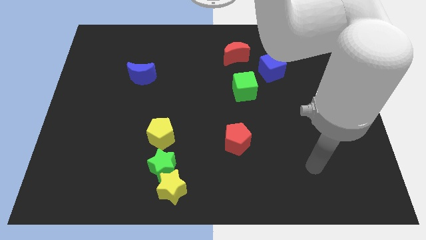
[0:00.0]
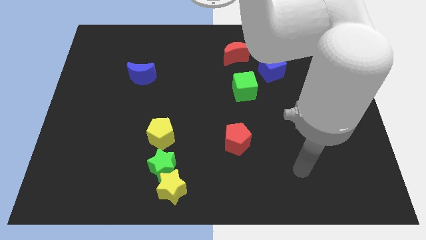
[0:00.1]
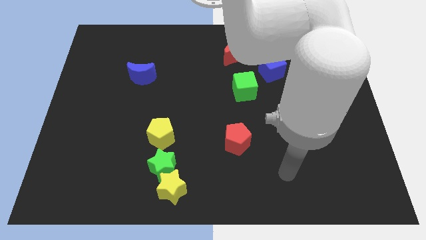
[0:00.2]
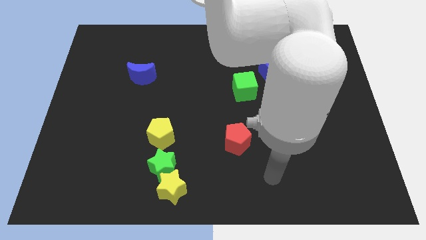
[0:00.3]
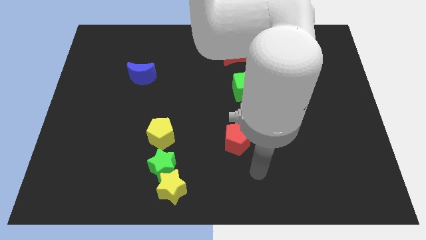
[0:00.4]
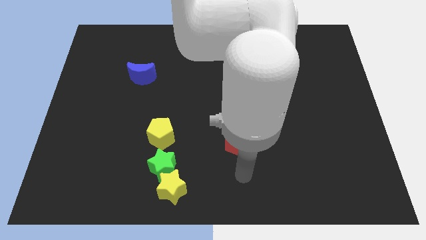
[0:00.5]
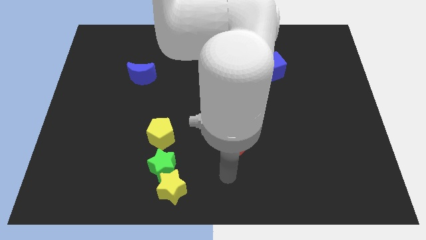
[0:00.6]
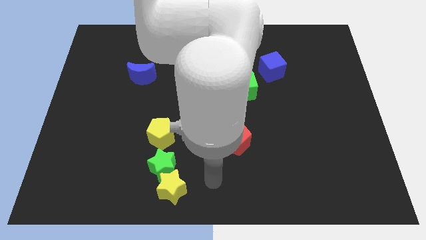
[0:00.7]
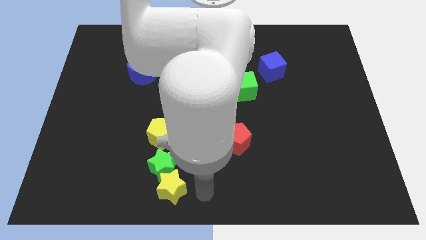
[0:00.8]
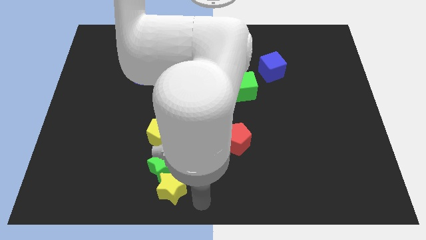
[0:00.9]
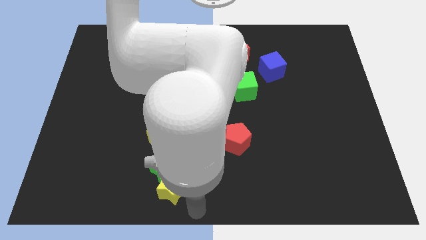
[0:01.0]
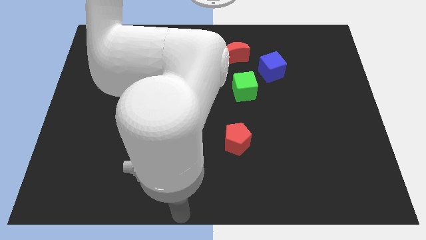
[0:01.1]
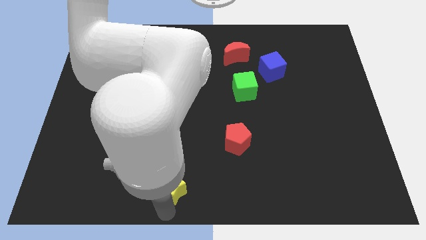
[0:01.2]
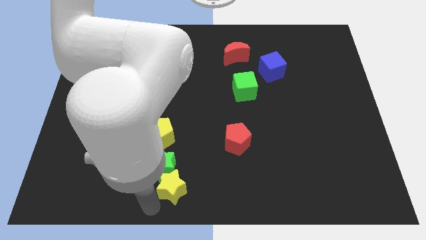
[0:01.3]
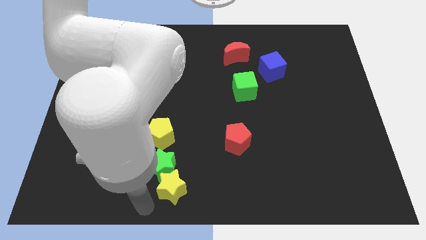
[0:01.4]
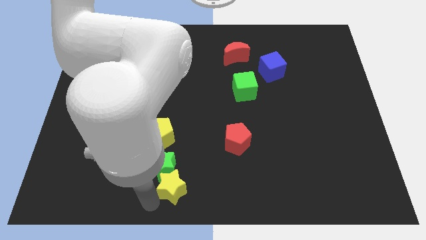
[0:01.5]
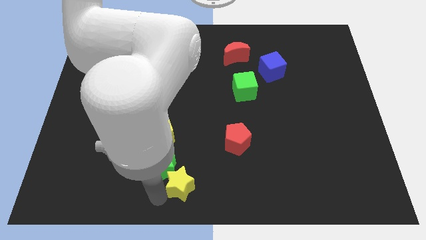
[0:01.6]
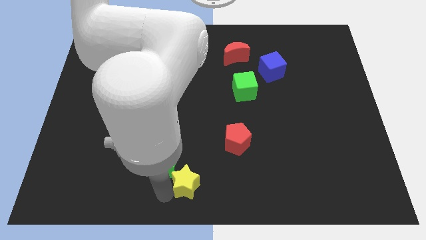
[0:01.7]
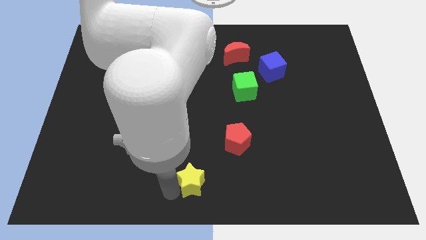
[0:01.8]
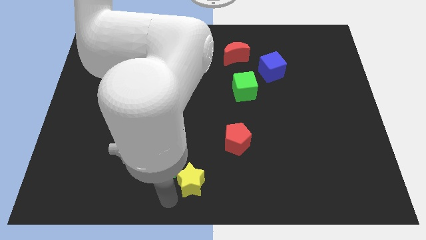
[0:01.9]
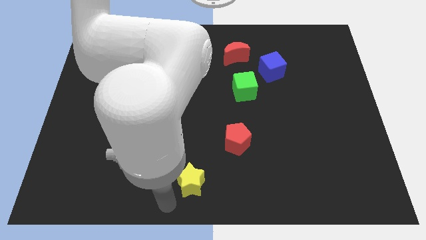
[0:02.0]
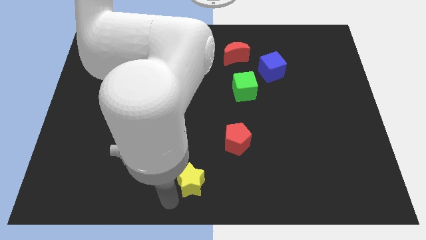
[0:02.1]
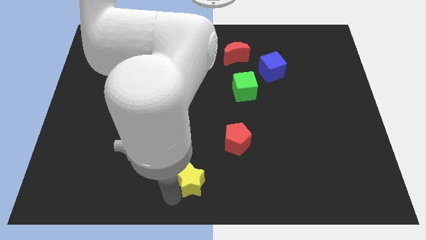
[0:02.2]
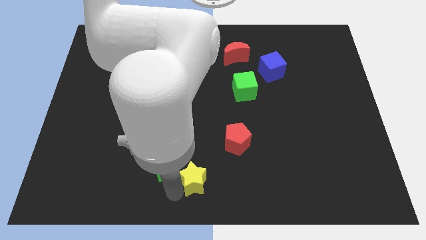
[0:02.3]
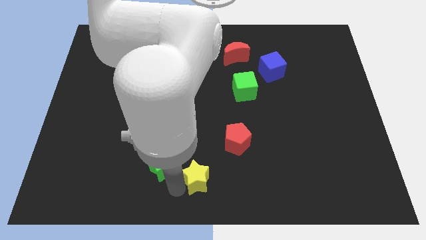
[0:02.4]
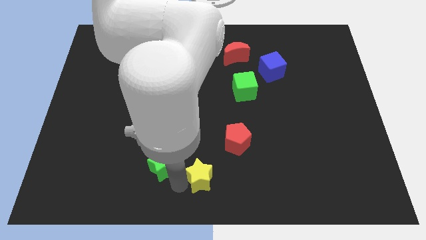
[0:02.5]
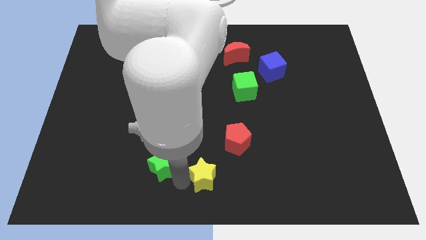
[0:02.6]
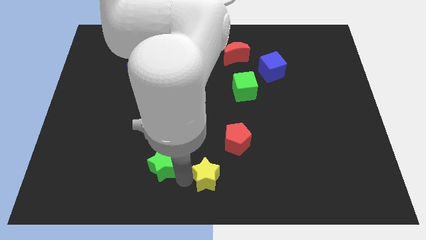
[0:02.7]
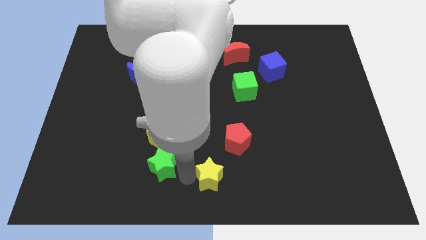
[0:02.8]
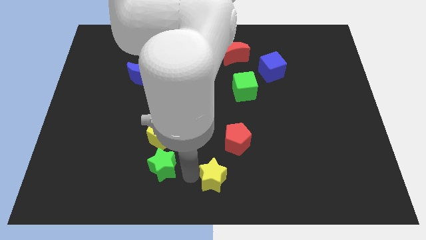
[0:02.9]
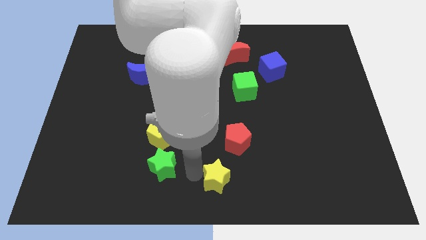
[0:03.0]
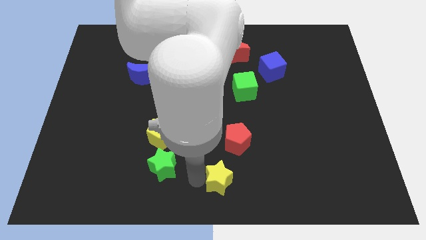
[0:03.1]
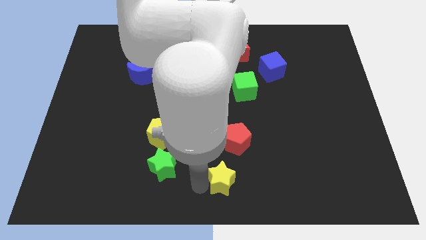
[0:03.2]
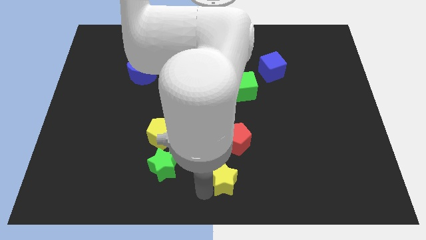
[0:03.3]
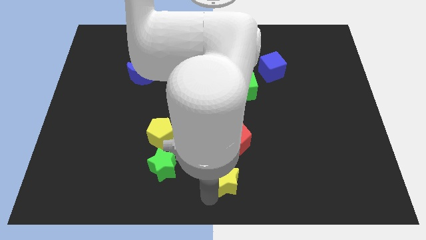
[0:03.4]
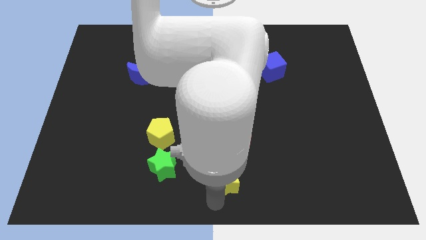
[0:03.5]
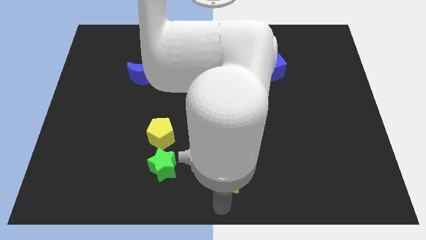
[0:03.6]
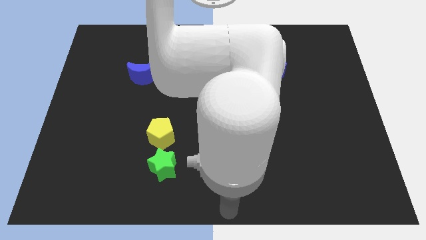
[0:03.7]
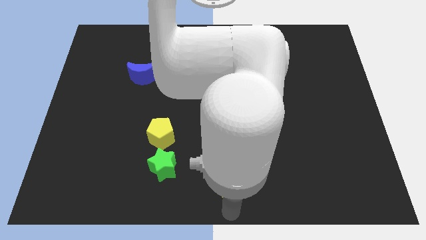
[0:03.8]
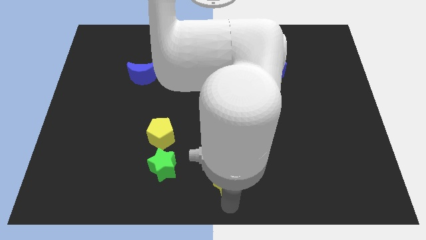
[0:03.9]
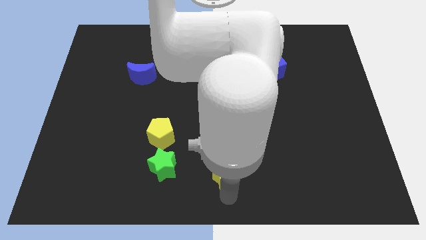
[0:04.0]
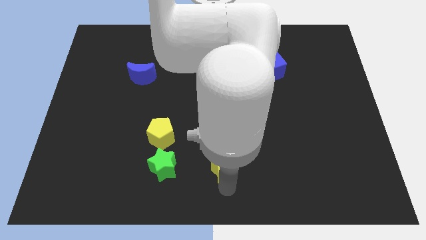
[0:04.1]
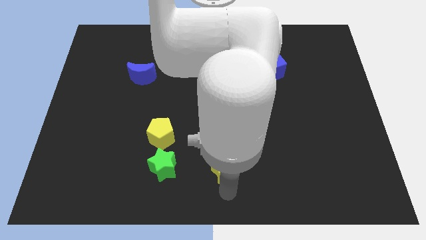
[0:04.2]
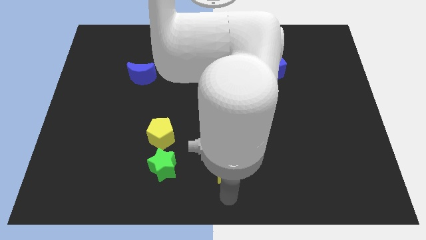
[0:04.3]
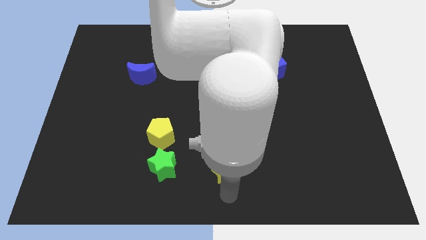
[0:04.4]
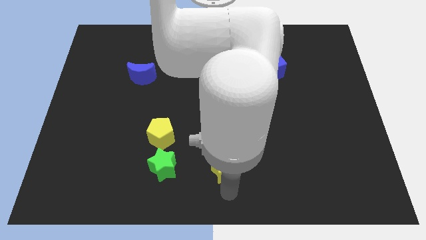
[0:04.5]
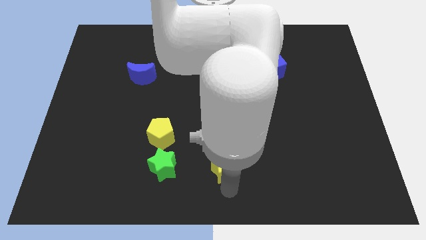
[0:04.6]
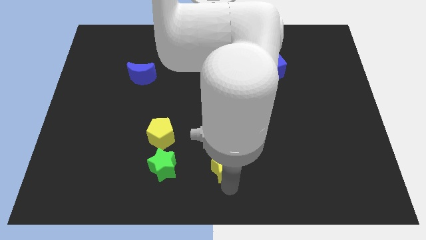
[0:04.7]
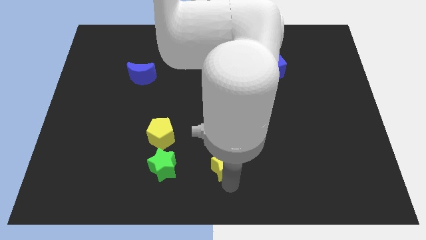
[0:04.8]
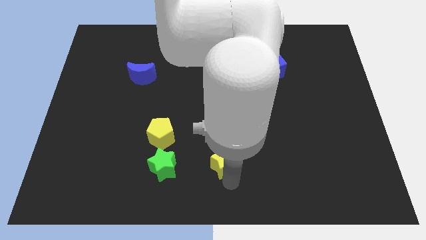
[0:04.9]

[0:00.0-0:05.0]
slide the yellow star next to the red pentagon

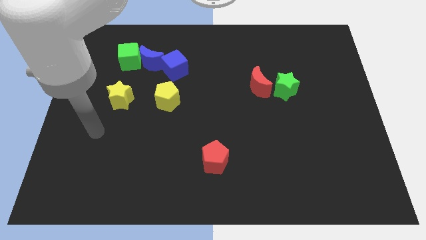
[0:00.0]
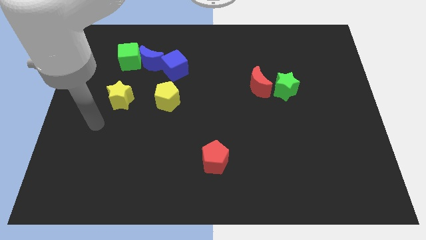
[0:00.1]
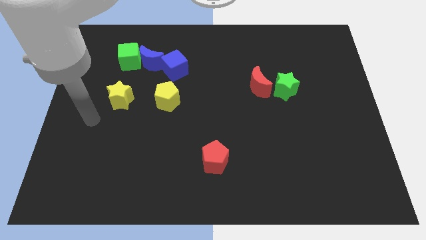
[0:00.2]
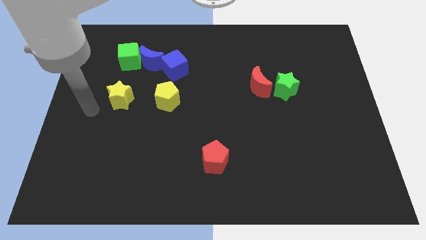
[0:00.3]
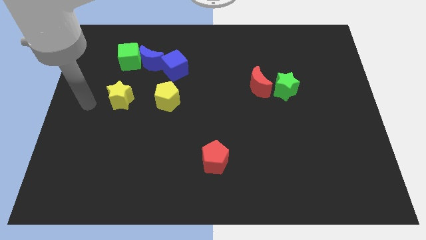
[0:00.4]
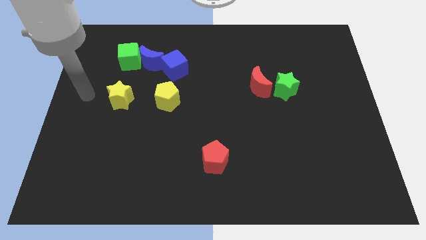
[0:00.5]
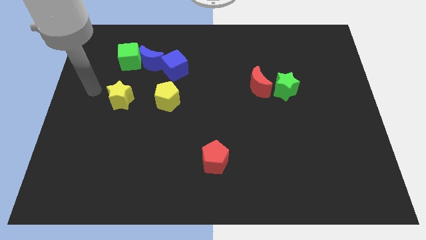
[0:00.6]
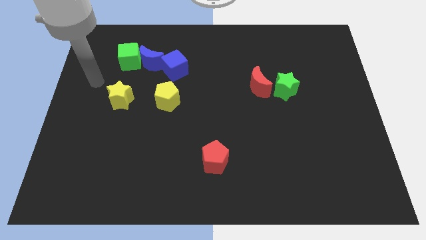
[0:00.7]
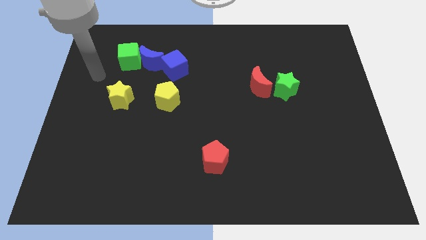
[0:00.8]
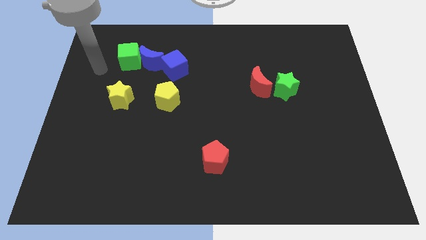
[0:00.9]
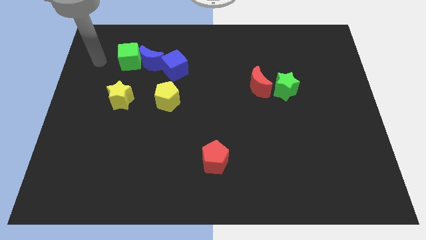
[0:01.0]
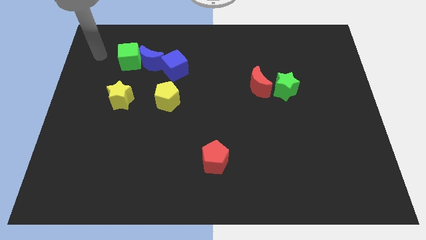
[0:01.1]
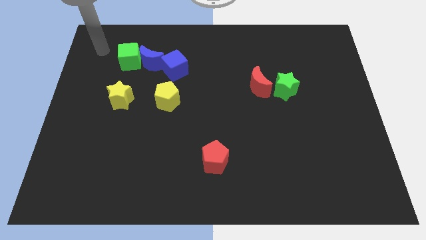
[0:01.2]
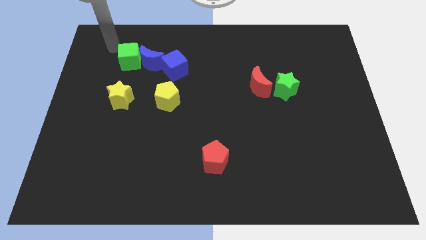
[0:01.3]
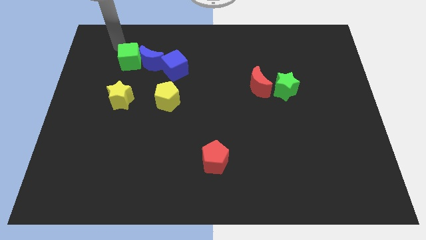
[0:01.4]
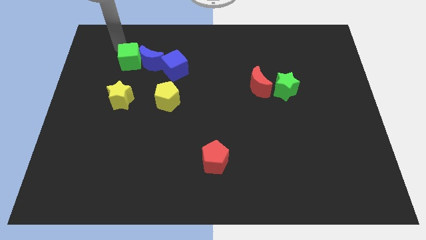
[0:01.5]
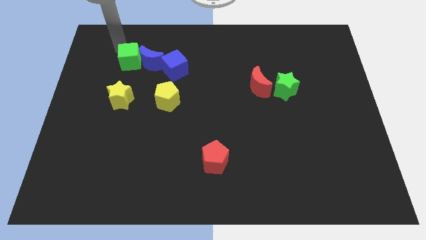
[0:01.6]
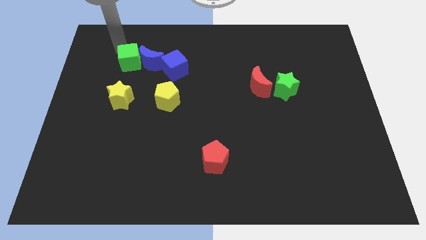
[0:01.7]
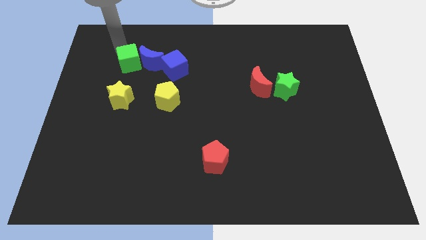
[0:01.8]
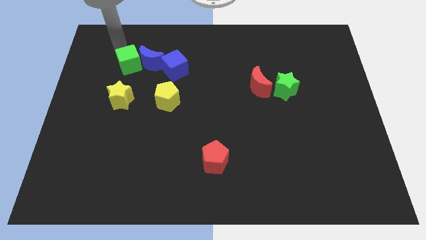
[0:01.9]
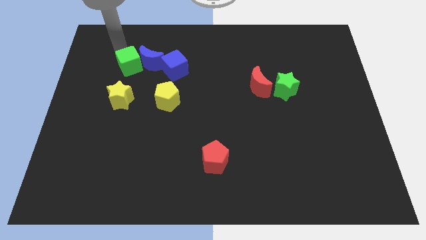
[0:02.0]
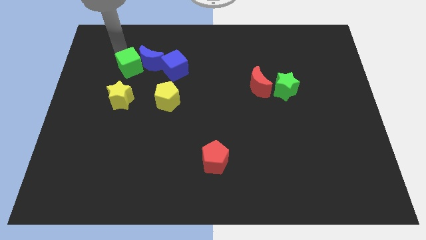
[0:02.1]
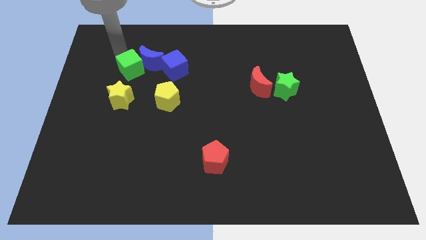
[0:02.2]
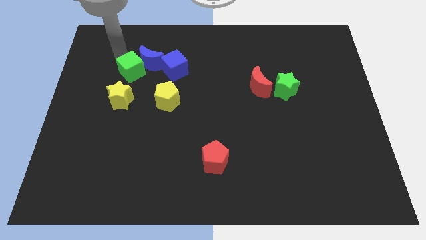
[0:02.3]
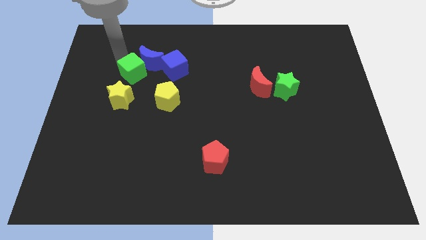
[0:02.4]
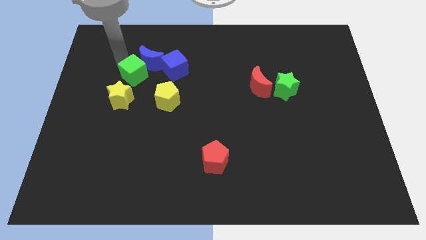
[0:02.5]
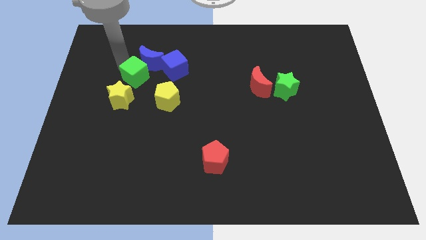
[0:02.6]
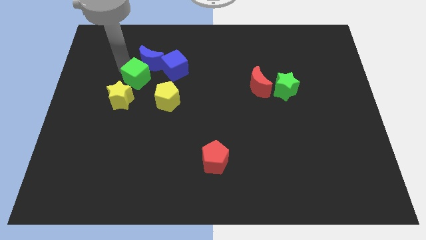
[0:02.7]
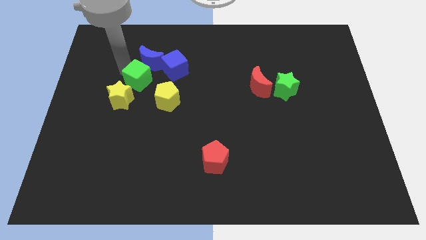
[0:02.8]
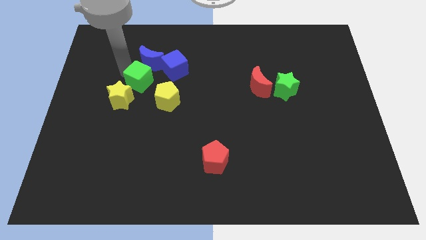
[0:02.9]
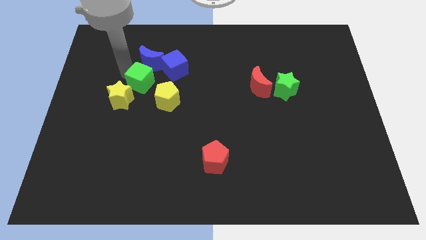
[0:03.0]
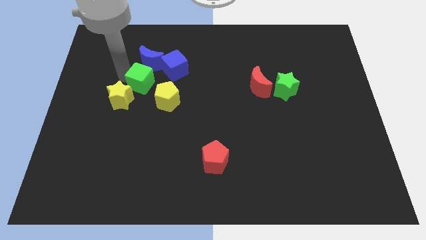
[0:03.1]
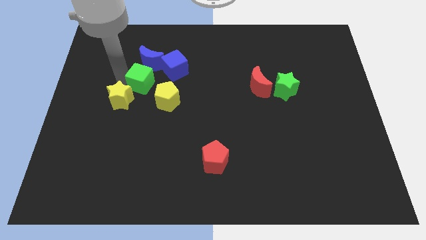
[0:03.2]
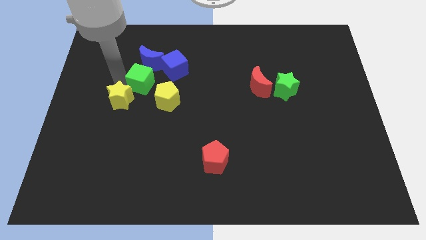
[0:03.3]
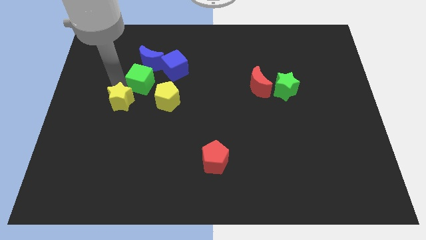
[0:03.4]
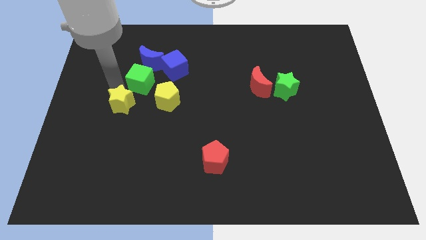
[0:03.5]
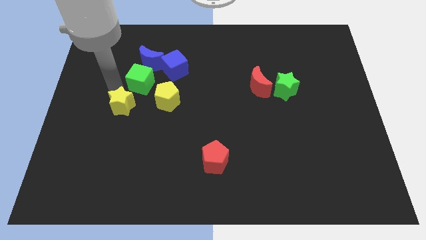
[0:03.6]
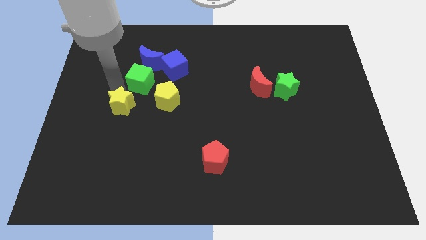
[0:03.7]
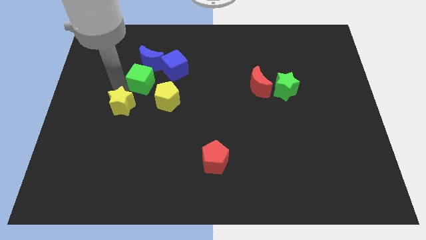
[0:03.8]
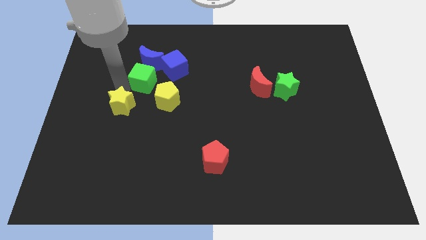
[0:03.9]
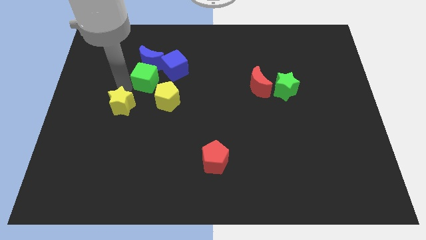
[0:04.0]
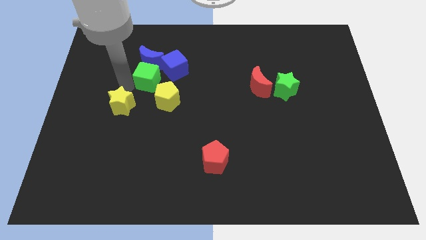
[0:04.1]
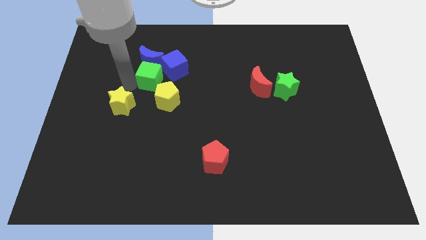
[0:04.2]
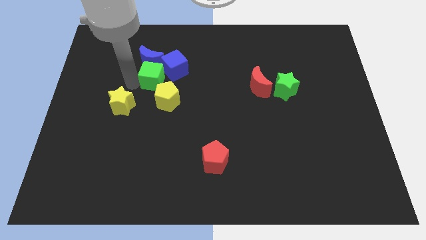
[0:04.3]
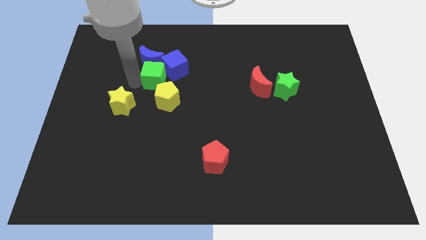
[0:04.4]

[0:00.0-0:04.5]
slide the green cube towards the blue cube
